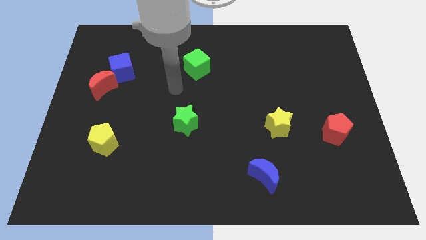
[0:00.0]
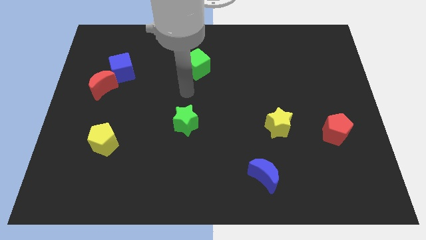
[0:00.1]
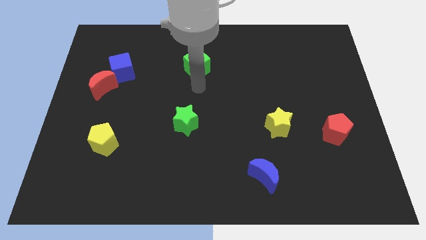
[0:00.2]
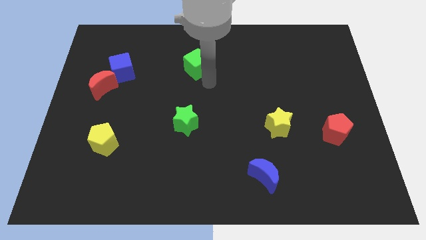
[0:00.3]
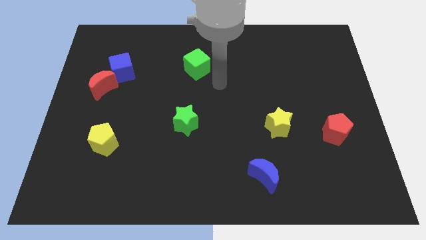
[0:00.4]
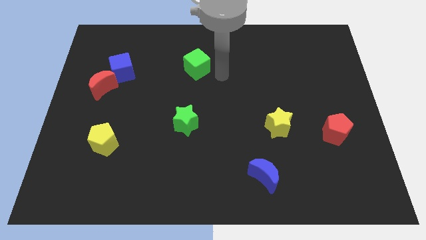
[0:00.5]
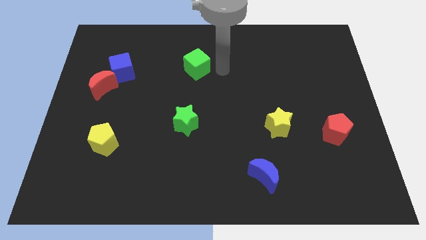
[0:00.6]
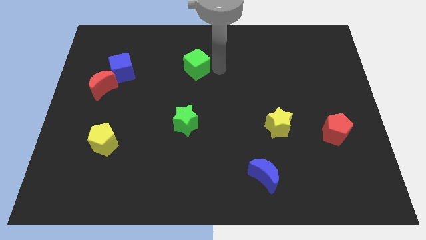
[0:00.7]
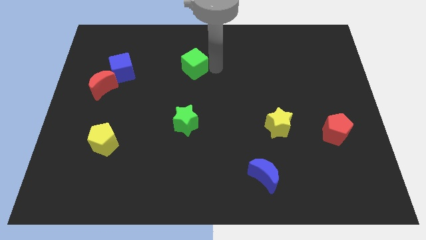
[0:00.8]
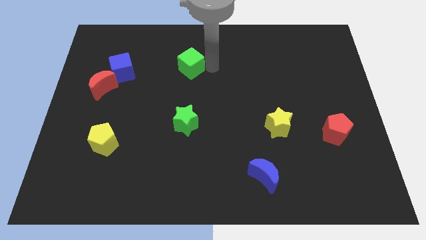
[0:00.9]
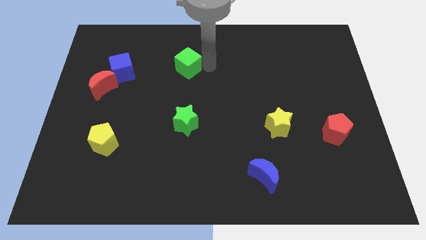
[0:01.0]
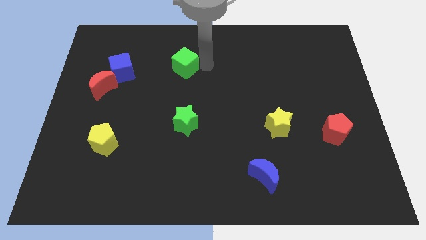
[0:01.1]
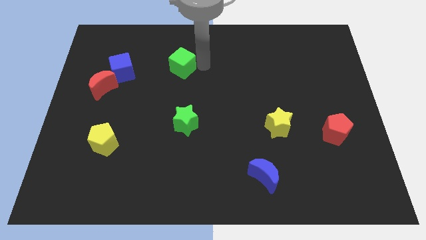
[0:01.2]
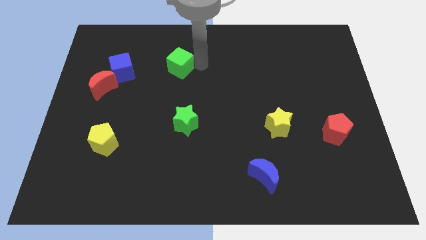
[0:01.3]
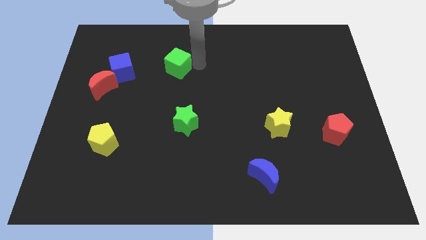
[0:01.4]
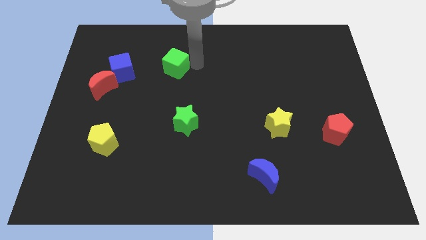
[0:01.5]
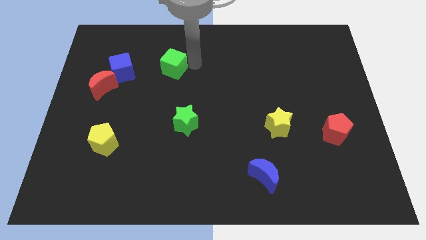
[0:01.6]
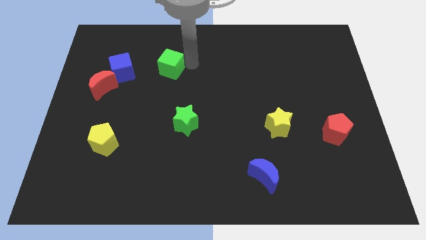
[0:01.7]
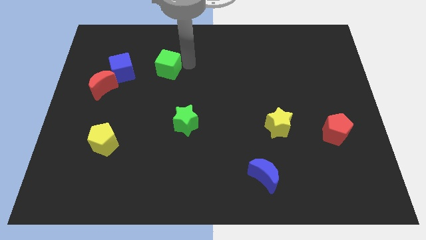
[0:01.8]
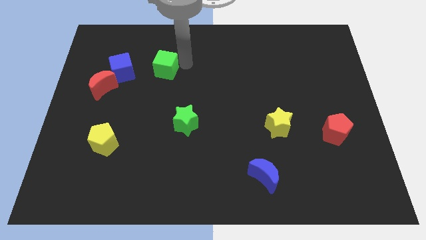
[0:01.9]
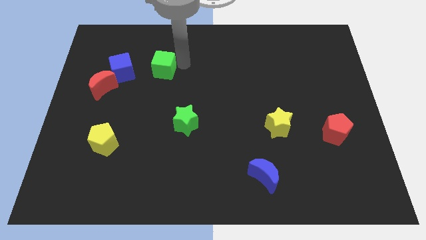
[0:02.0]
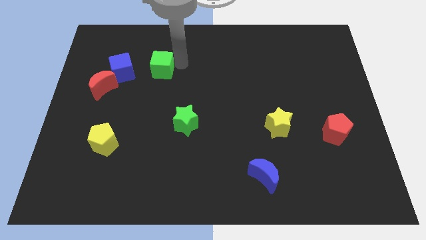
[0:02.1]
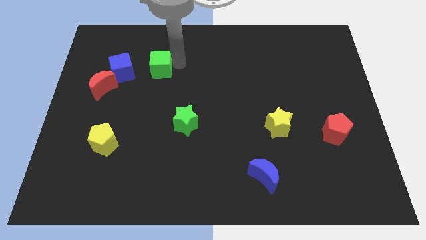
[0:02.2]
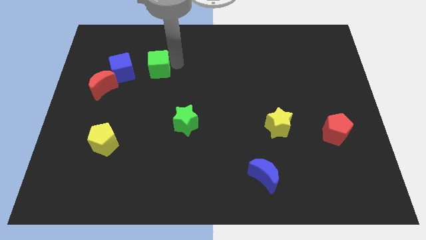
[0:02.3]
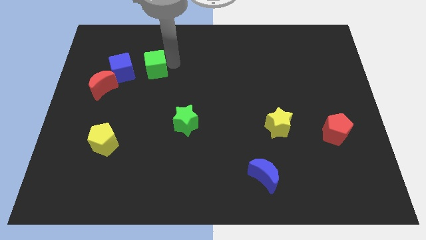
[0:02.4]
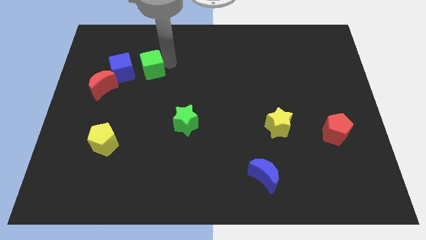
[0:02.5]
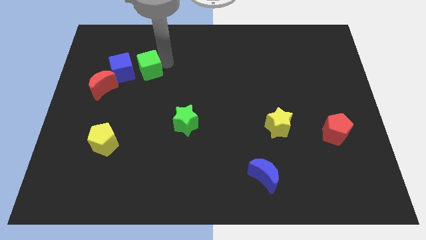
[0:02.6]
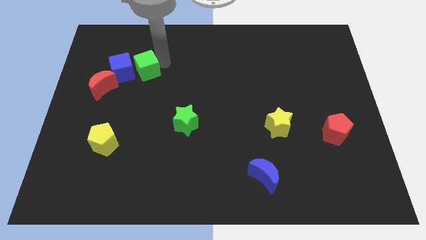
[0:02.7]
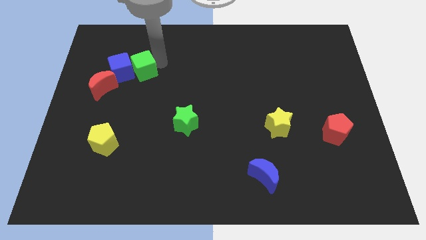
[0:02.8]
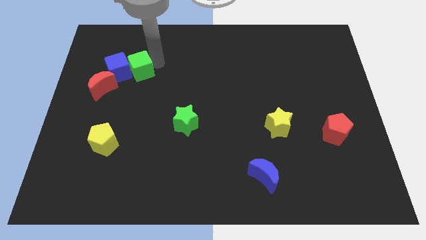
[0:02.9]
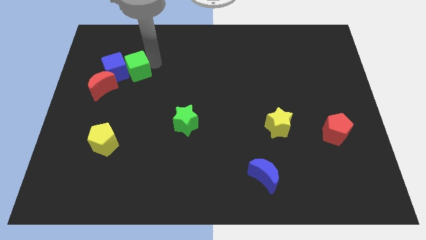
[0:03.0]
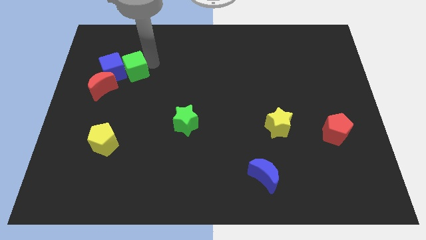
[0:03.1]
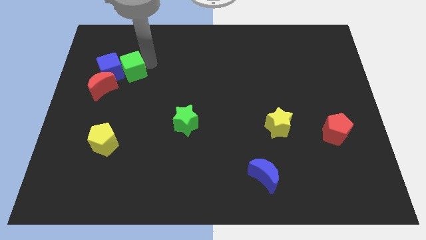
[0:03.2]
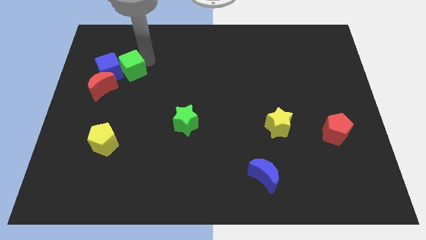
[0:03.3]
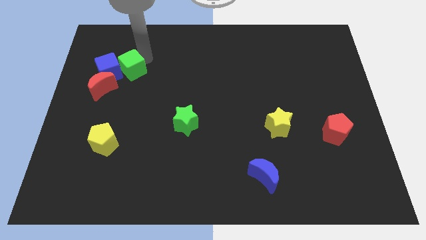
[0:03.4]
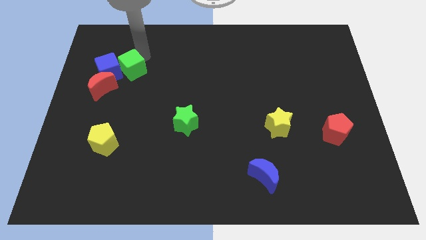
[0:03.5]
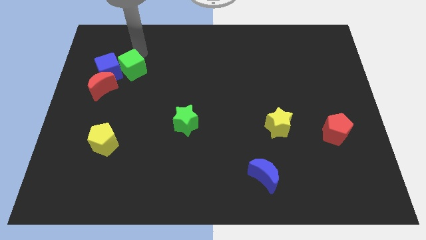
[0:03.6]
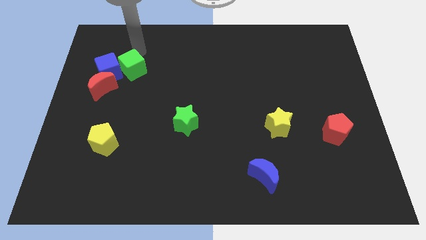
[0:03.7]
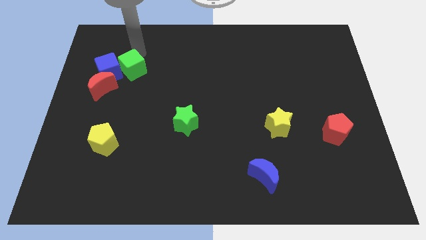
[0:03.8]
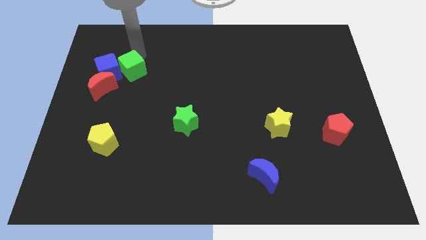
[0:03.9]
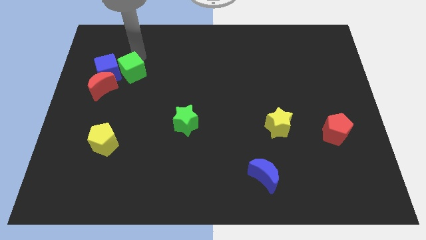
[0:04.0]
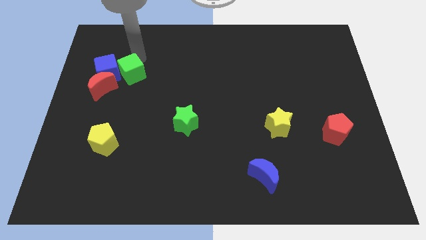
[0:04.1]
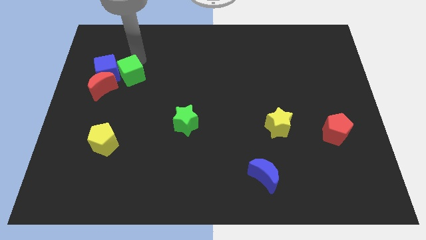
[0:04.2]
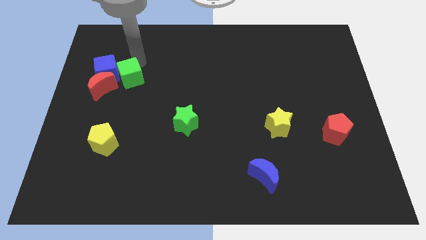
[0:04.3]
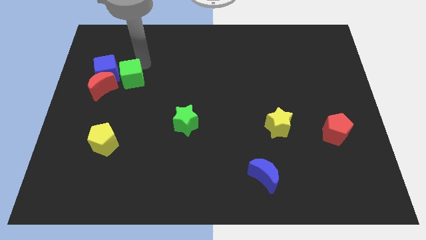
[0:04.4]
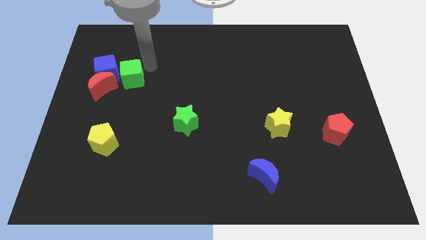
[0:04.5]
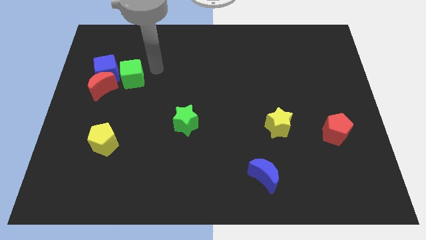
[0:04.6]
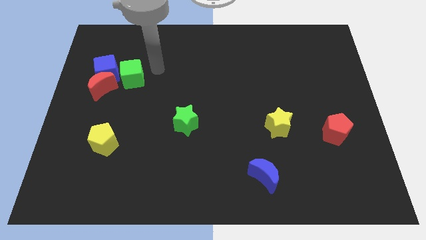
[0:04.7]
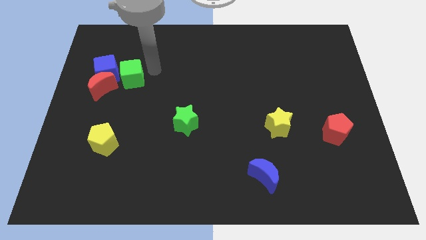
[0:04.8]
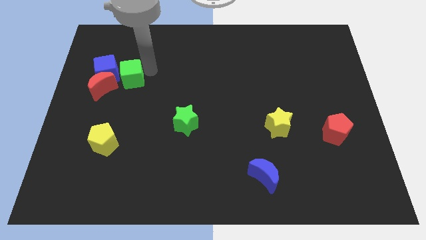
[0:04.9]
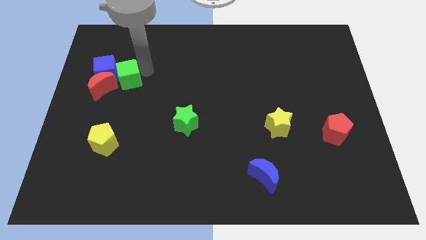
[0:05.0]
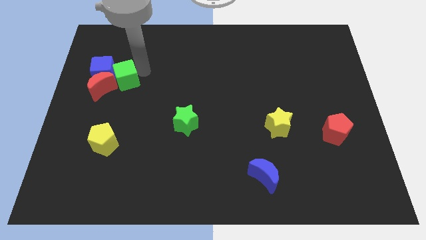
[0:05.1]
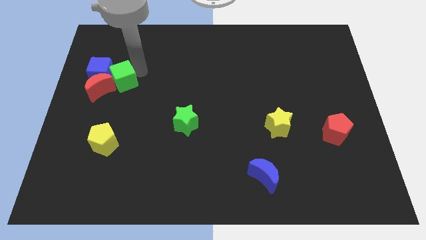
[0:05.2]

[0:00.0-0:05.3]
push the green cube towards the red moon

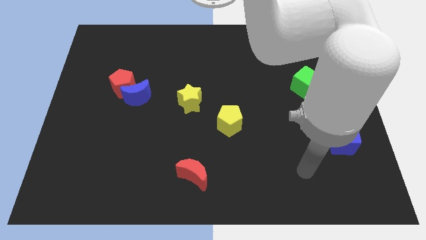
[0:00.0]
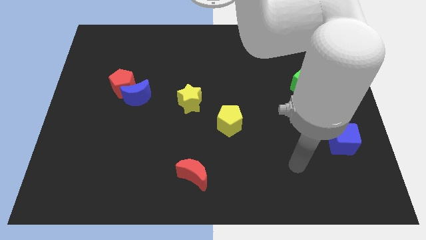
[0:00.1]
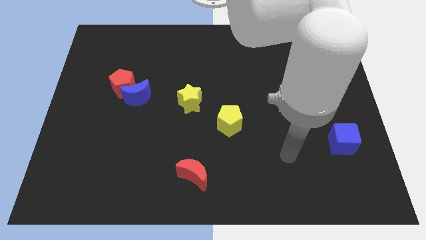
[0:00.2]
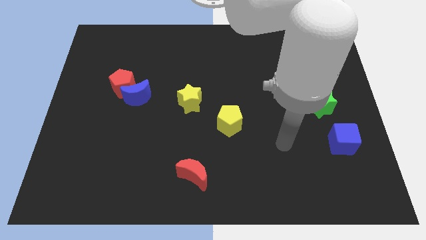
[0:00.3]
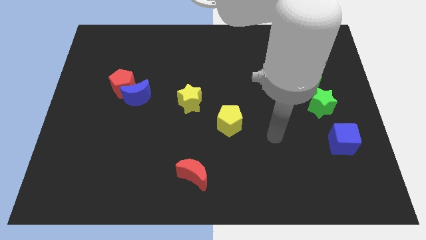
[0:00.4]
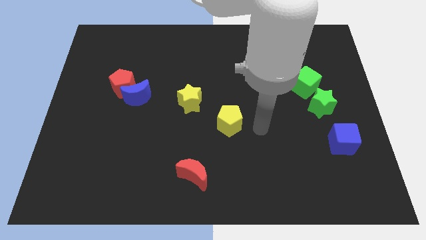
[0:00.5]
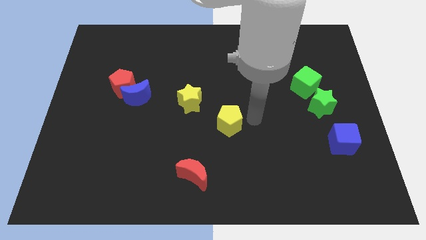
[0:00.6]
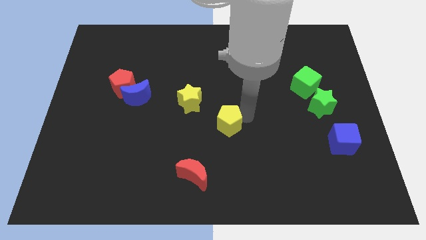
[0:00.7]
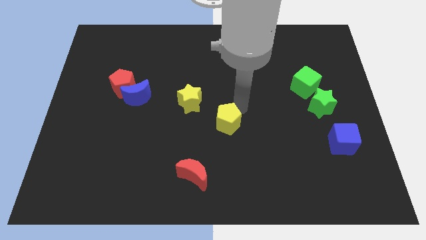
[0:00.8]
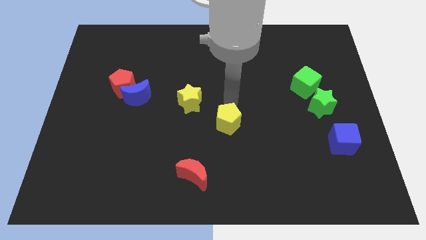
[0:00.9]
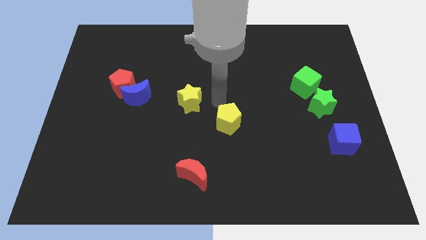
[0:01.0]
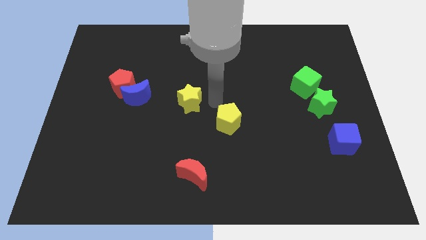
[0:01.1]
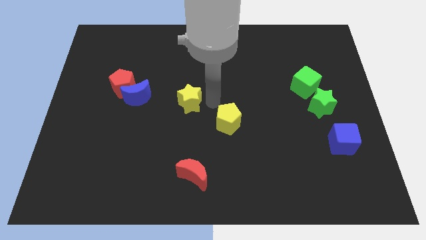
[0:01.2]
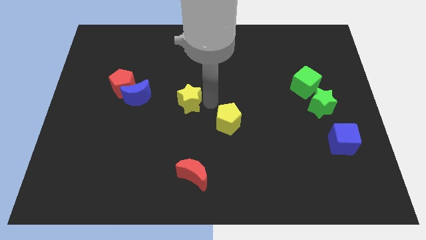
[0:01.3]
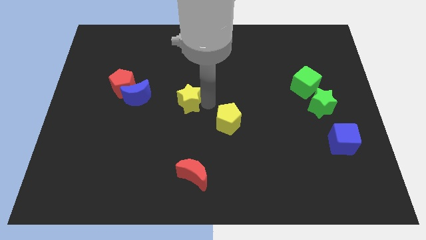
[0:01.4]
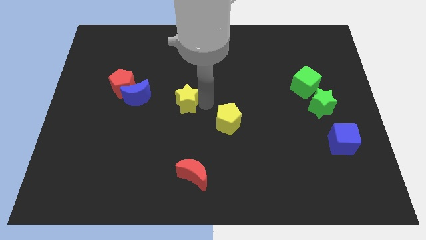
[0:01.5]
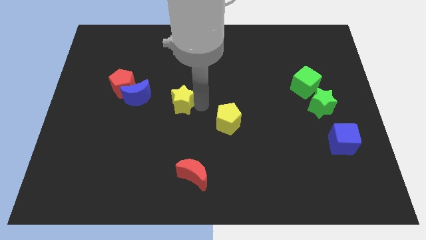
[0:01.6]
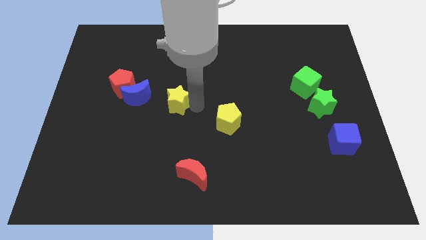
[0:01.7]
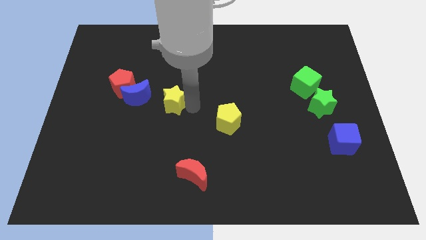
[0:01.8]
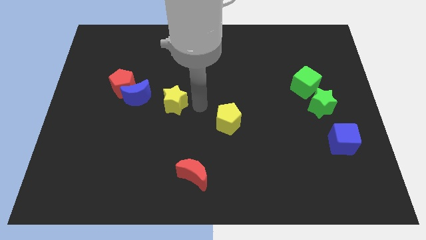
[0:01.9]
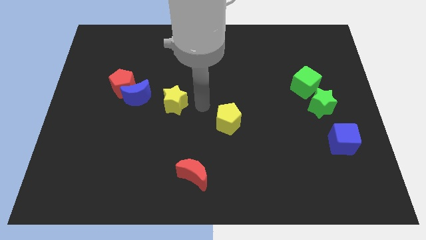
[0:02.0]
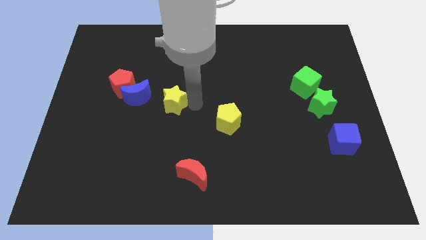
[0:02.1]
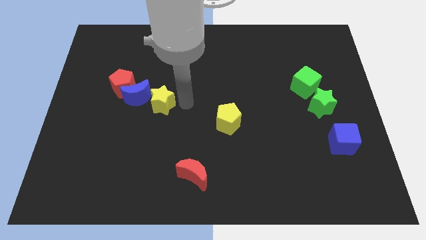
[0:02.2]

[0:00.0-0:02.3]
move the yellow star to the blue moon
